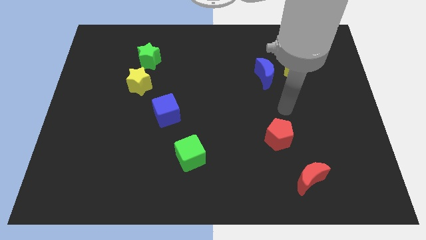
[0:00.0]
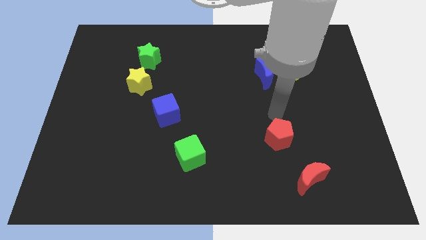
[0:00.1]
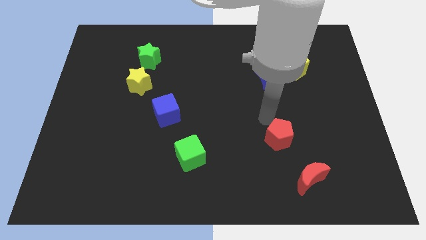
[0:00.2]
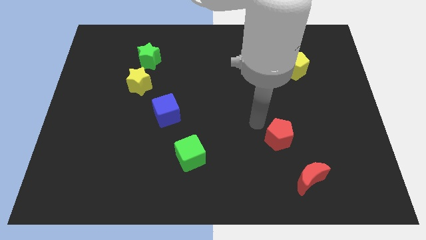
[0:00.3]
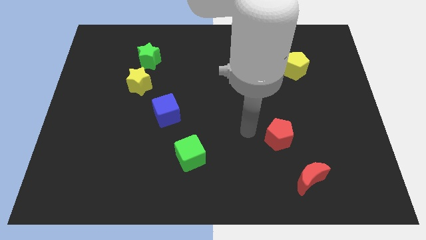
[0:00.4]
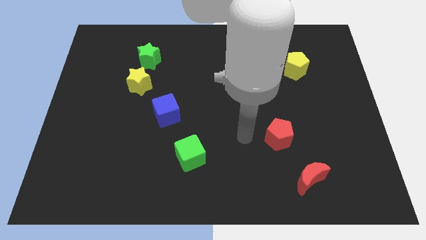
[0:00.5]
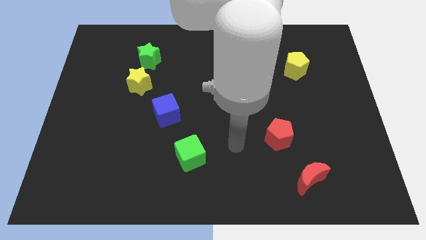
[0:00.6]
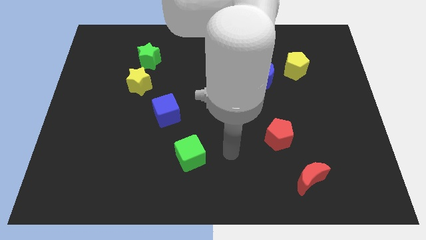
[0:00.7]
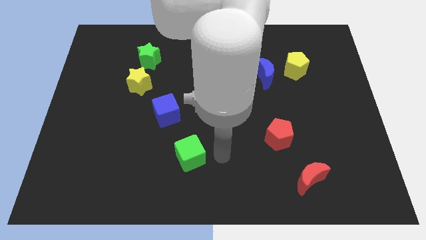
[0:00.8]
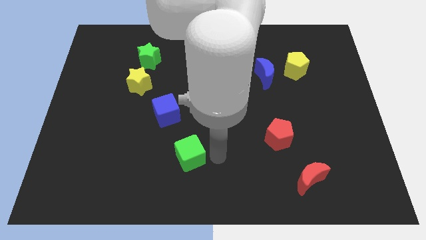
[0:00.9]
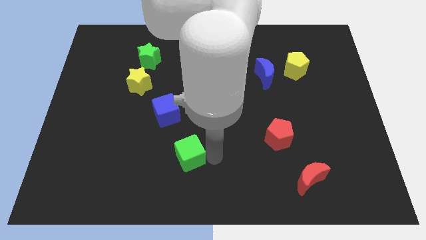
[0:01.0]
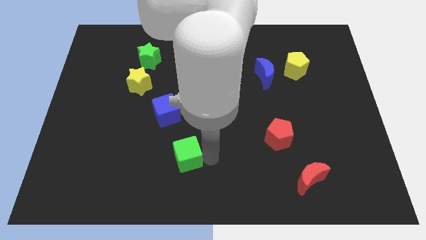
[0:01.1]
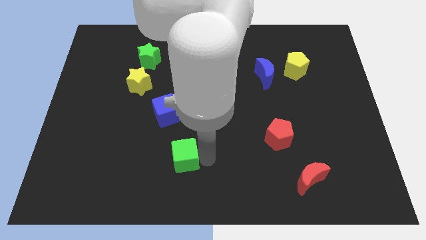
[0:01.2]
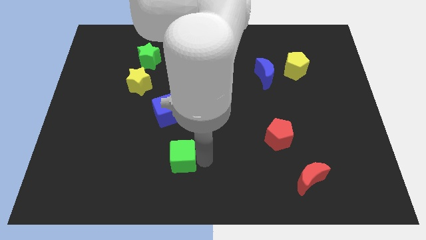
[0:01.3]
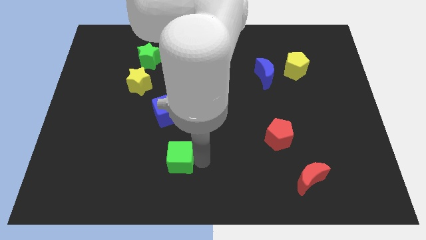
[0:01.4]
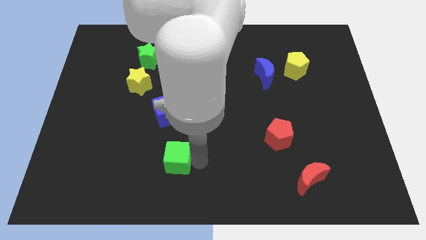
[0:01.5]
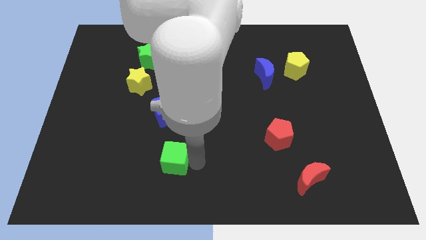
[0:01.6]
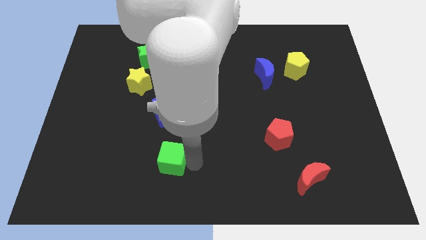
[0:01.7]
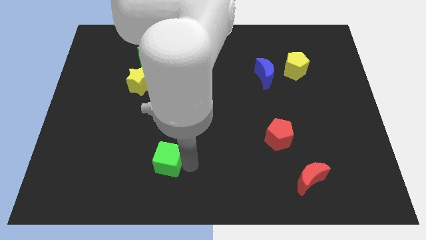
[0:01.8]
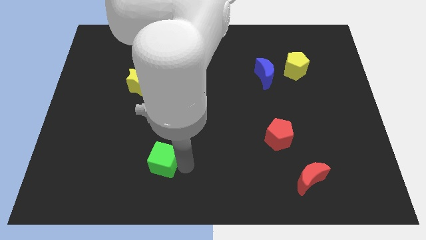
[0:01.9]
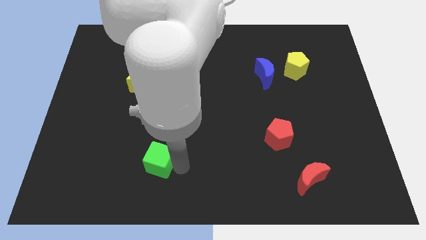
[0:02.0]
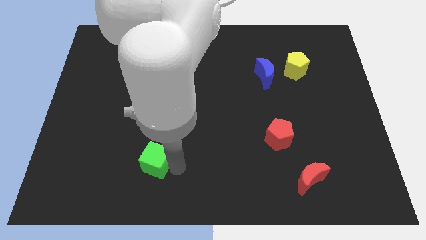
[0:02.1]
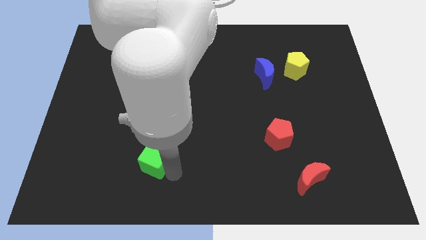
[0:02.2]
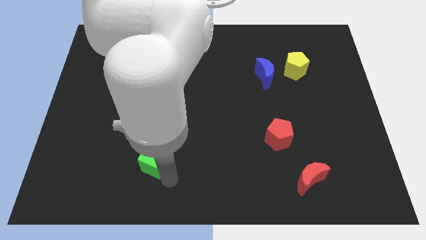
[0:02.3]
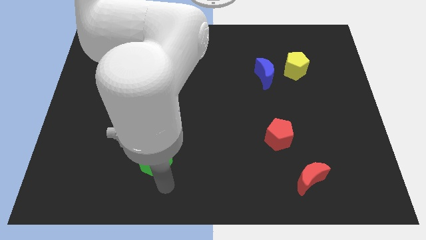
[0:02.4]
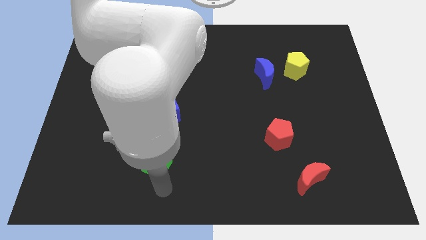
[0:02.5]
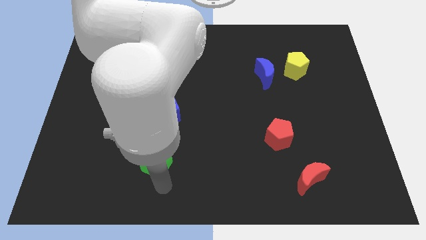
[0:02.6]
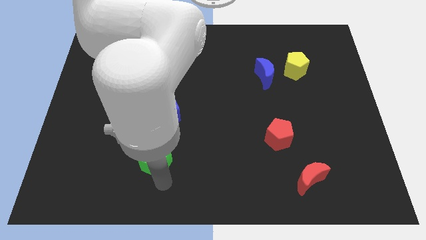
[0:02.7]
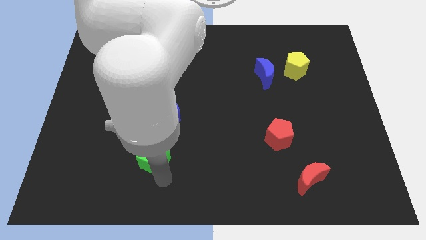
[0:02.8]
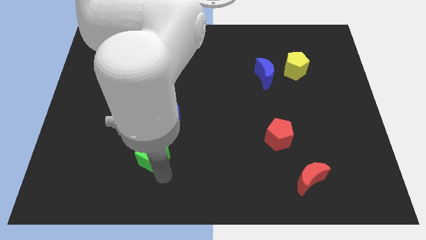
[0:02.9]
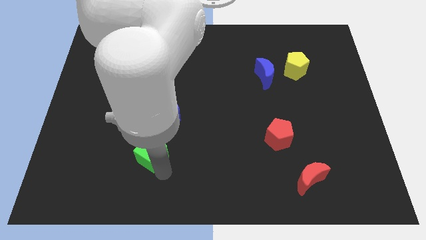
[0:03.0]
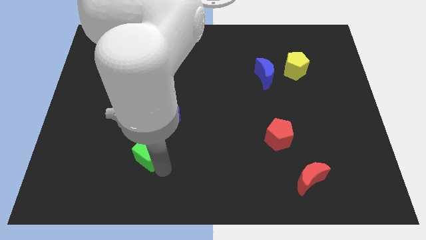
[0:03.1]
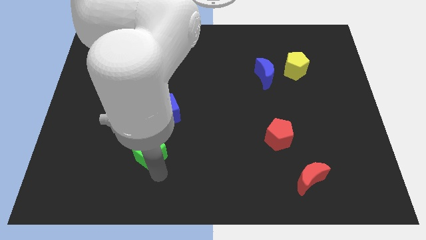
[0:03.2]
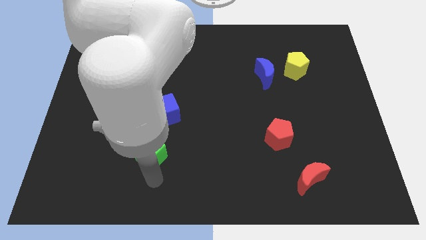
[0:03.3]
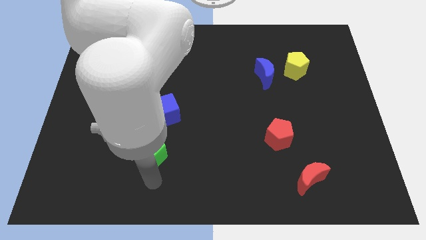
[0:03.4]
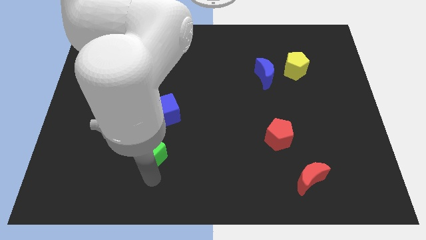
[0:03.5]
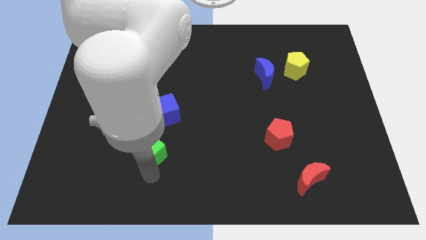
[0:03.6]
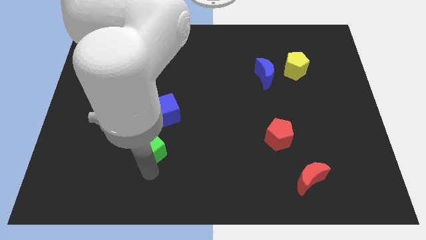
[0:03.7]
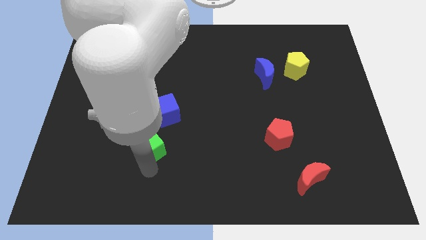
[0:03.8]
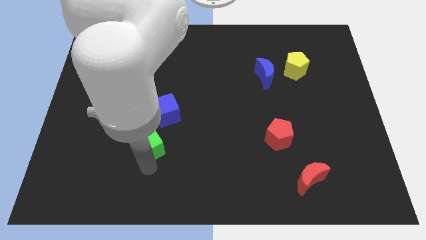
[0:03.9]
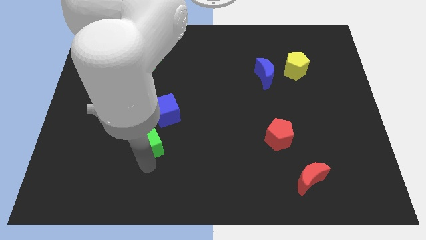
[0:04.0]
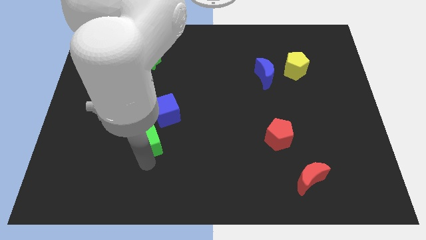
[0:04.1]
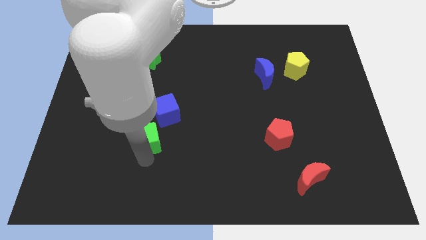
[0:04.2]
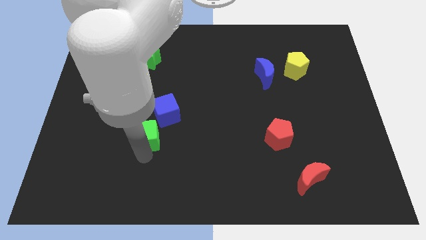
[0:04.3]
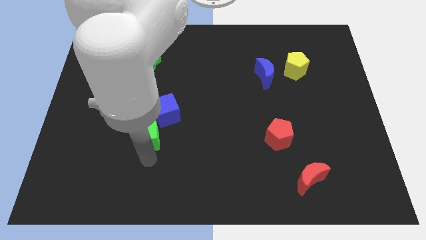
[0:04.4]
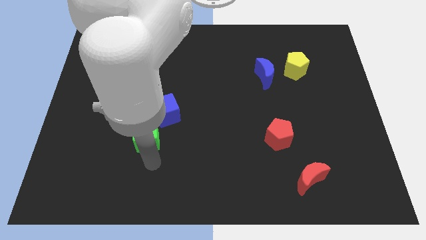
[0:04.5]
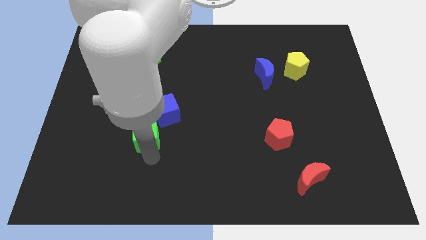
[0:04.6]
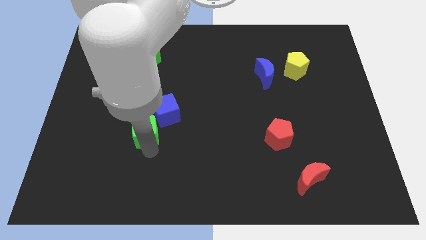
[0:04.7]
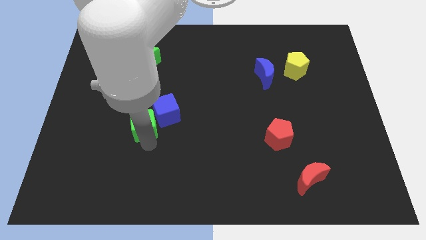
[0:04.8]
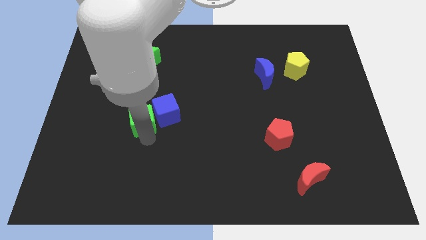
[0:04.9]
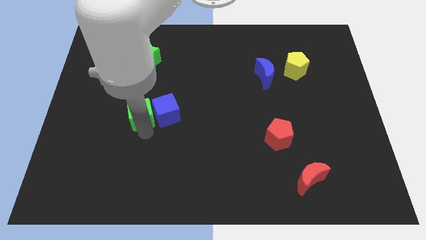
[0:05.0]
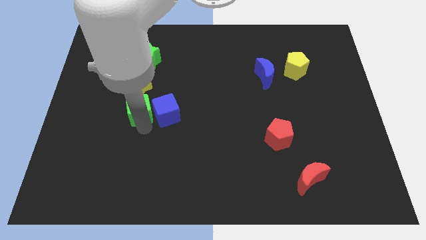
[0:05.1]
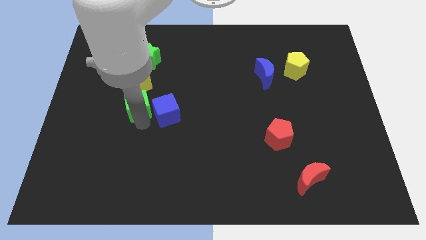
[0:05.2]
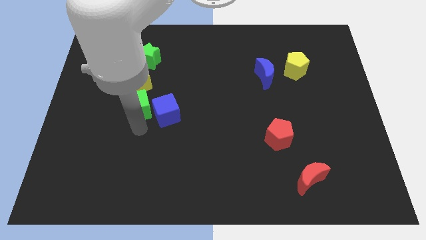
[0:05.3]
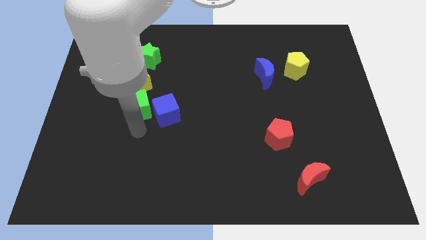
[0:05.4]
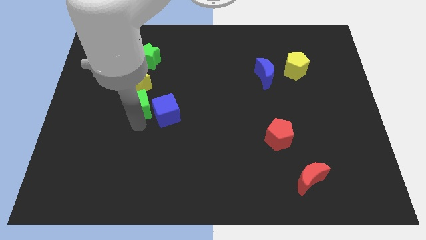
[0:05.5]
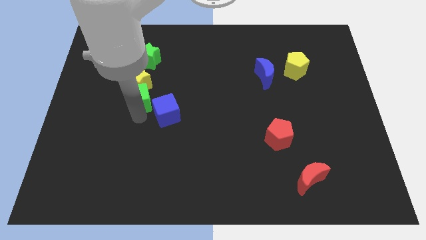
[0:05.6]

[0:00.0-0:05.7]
slide the green cube to the yellow star

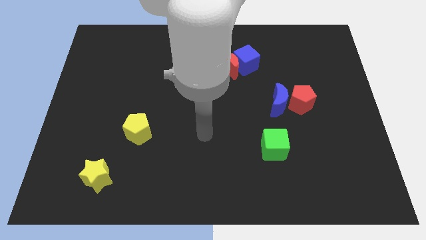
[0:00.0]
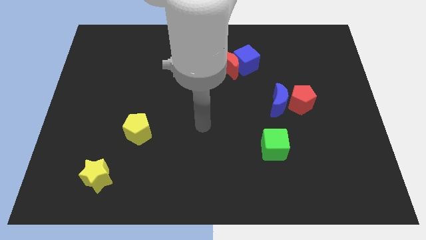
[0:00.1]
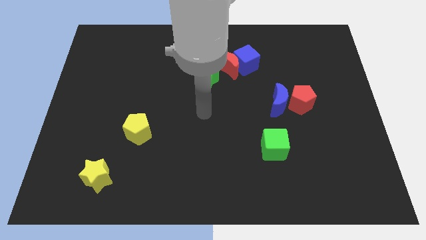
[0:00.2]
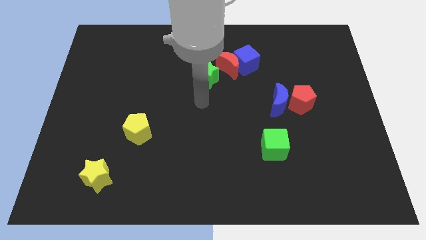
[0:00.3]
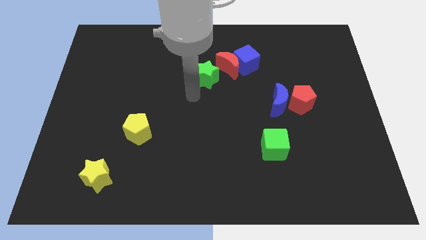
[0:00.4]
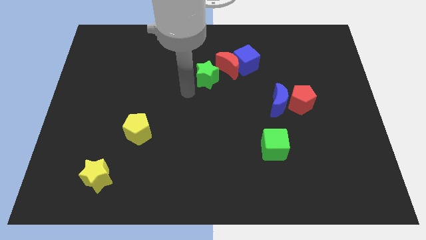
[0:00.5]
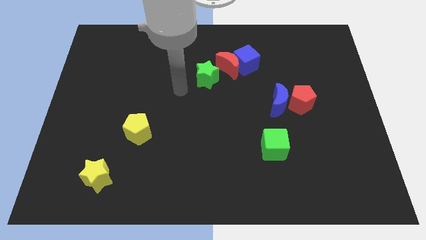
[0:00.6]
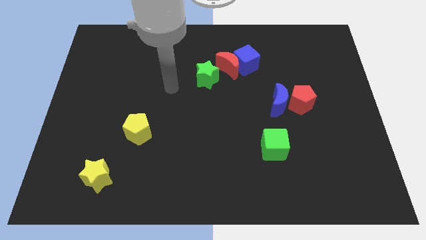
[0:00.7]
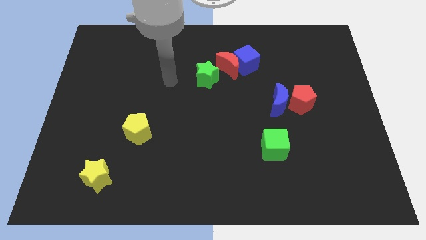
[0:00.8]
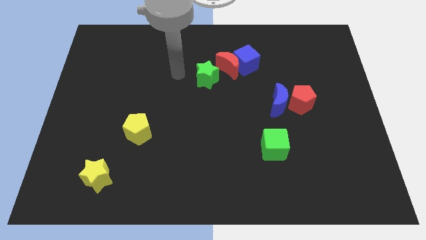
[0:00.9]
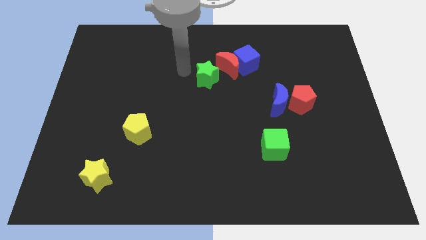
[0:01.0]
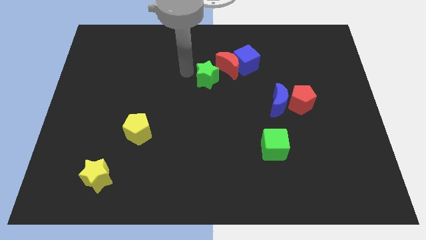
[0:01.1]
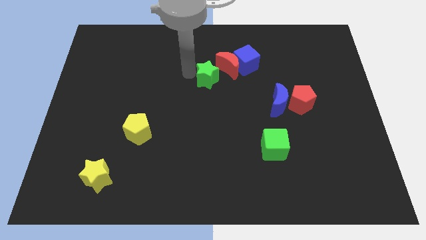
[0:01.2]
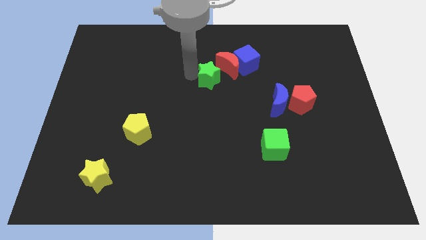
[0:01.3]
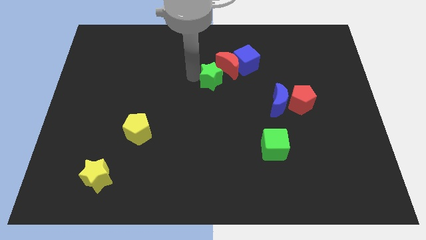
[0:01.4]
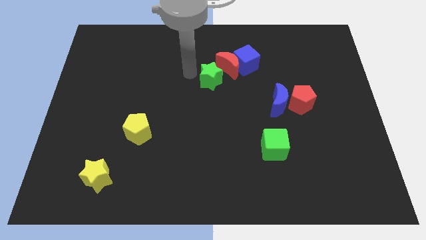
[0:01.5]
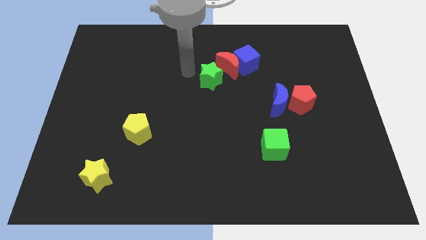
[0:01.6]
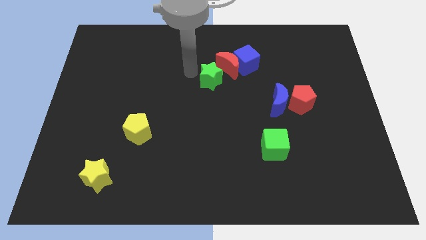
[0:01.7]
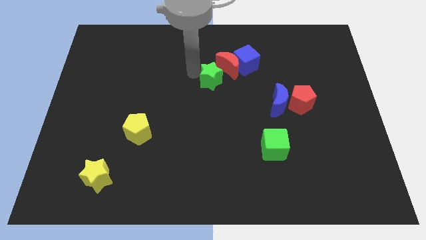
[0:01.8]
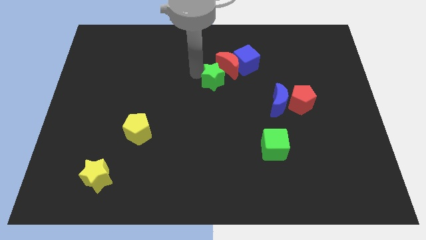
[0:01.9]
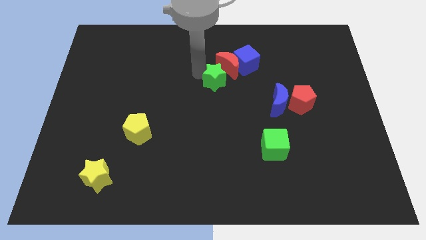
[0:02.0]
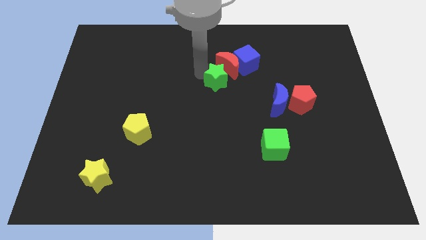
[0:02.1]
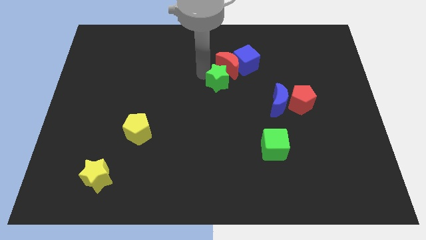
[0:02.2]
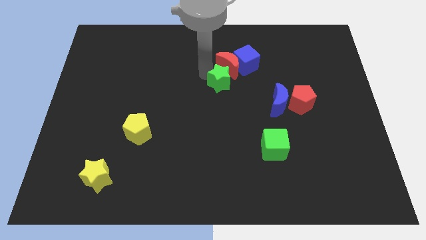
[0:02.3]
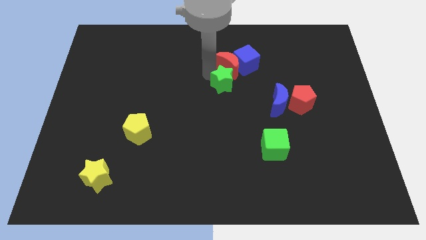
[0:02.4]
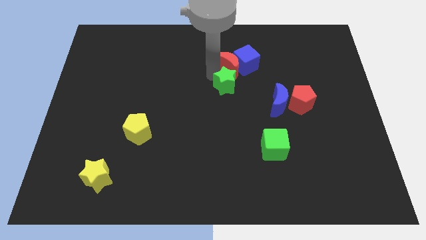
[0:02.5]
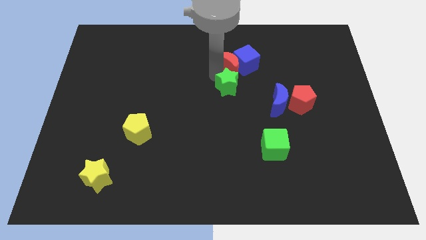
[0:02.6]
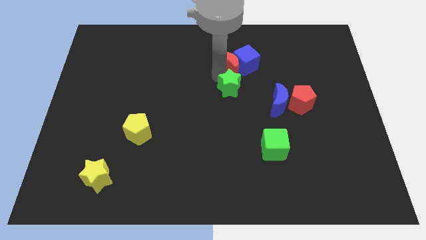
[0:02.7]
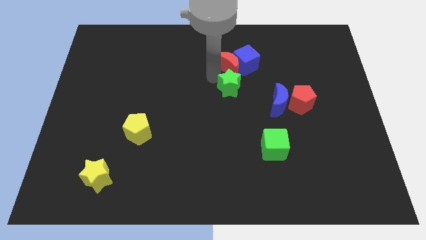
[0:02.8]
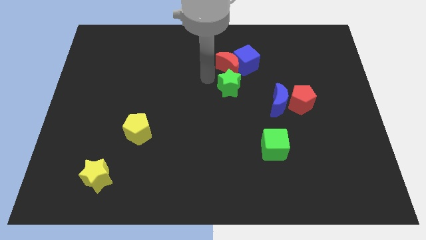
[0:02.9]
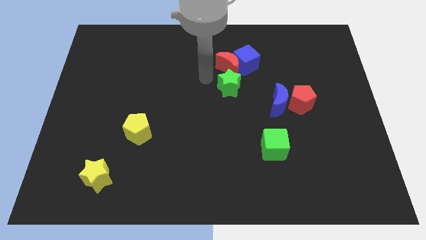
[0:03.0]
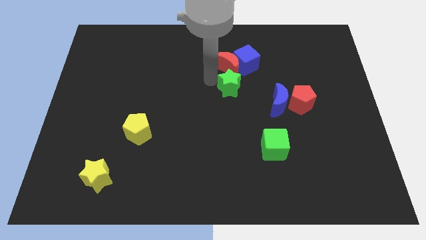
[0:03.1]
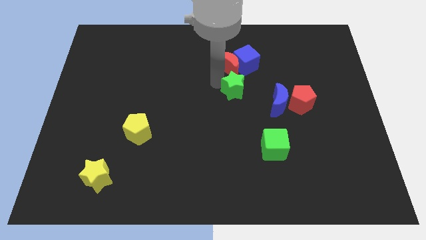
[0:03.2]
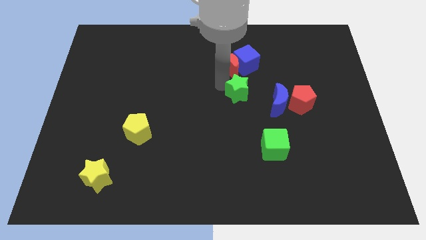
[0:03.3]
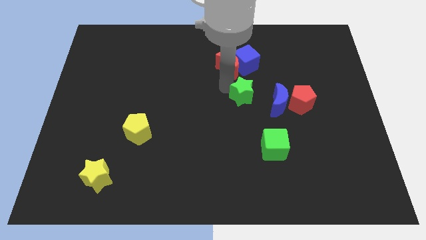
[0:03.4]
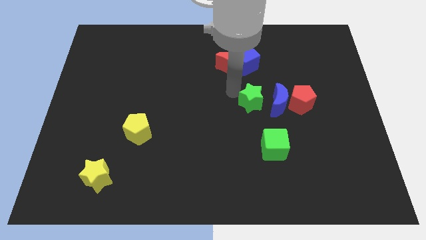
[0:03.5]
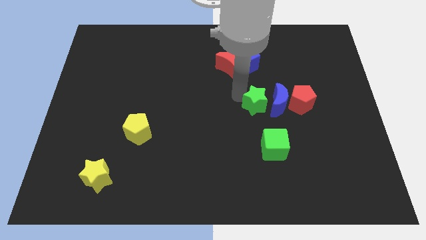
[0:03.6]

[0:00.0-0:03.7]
push the green star towards the blue moon
